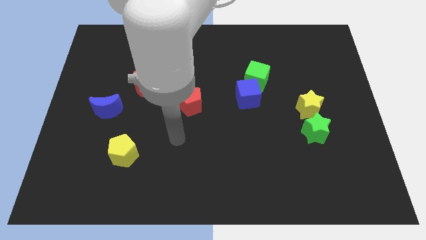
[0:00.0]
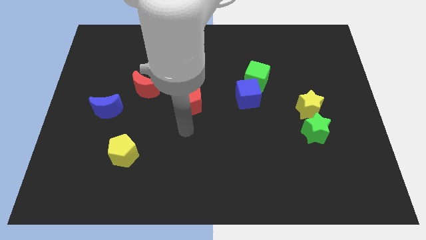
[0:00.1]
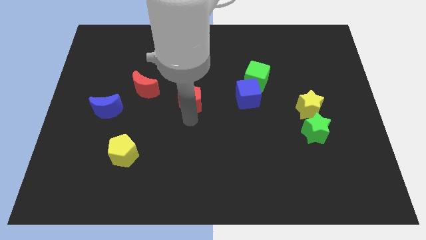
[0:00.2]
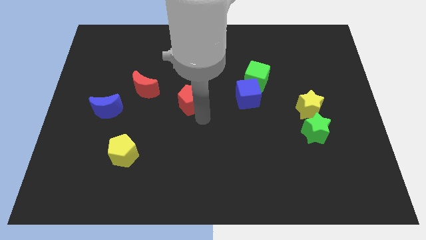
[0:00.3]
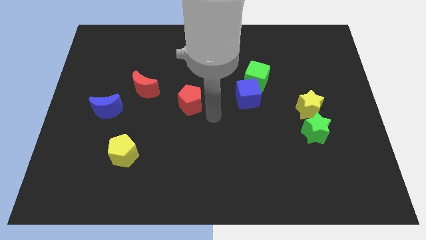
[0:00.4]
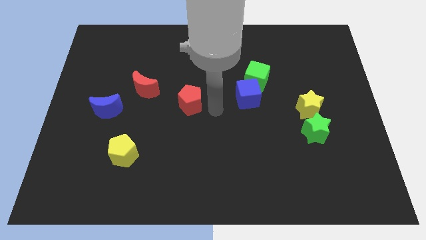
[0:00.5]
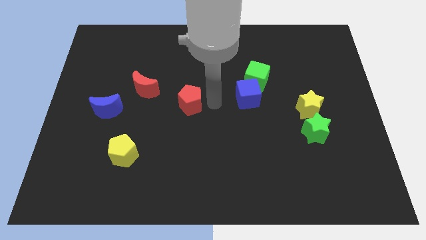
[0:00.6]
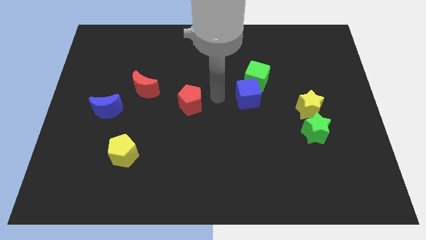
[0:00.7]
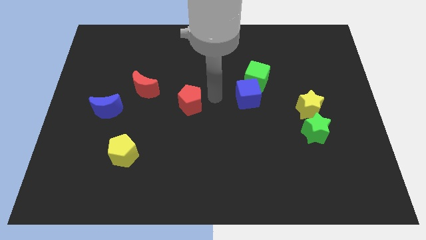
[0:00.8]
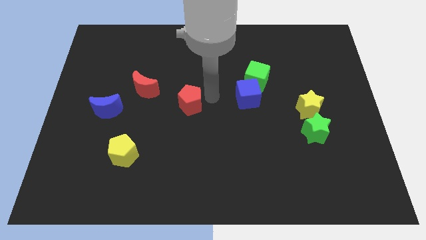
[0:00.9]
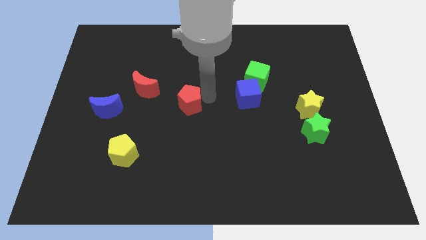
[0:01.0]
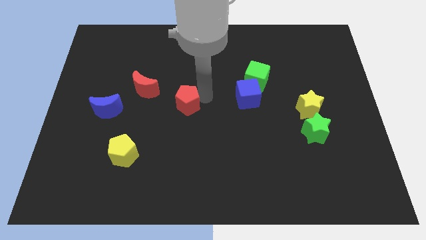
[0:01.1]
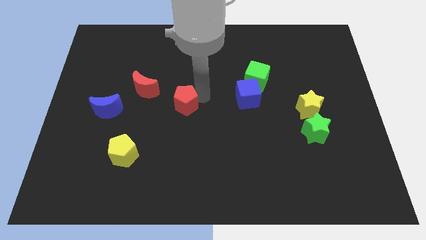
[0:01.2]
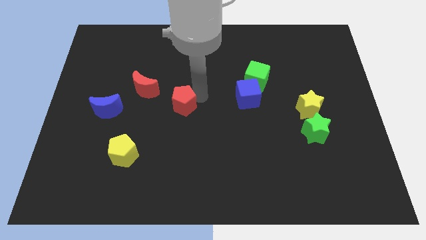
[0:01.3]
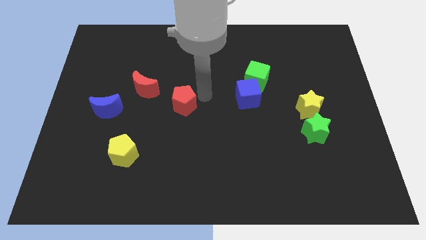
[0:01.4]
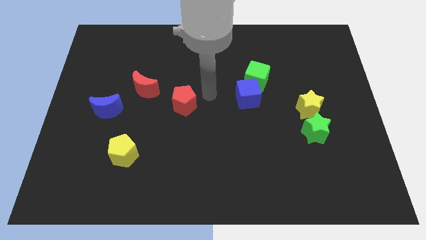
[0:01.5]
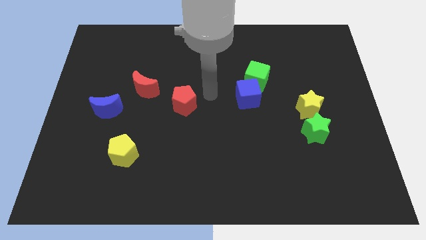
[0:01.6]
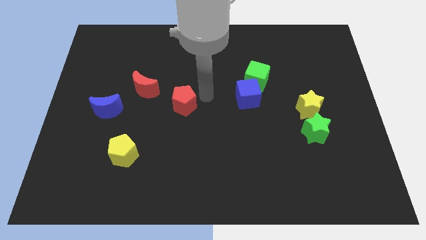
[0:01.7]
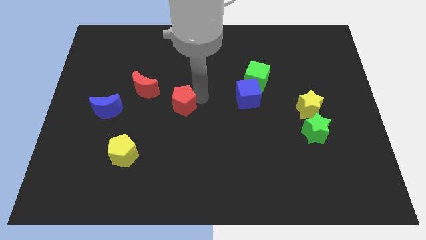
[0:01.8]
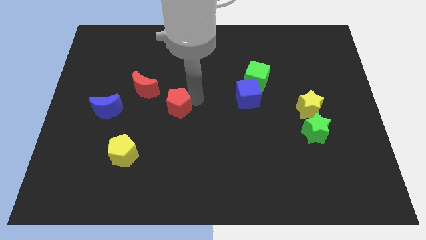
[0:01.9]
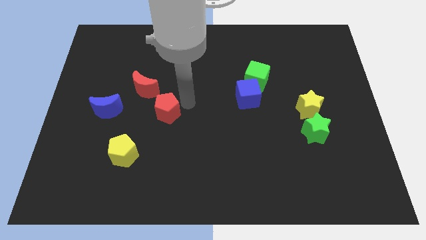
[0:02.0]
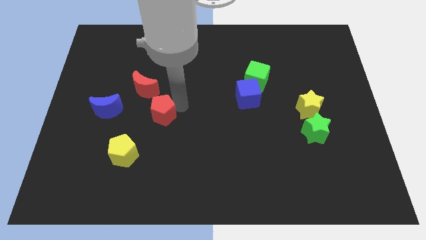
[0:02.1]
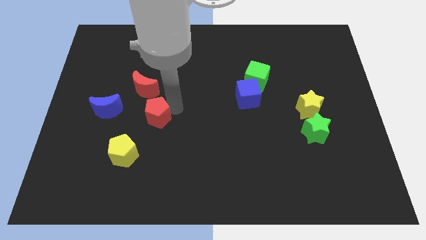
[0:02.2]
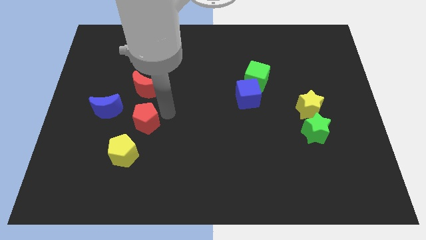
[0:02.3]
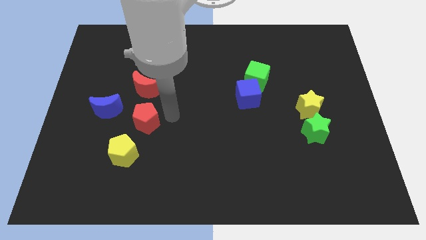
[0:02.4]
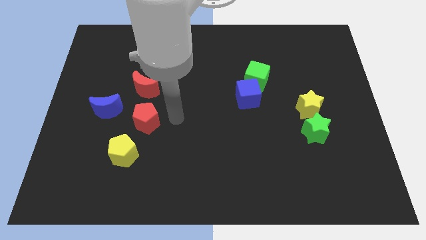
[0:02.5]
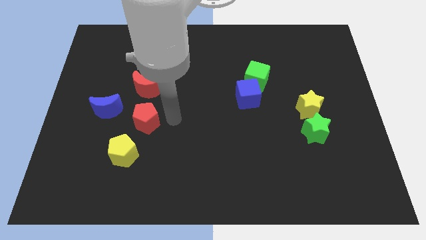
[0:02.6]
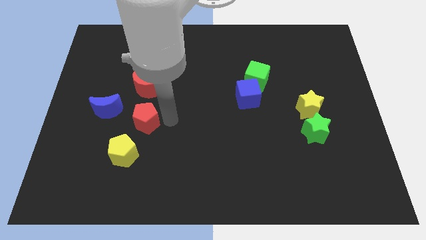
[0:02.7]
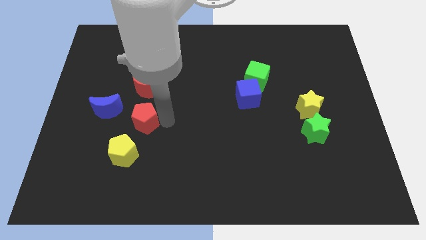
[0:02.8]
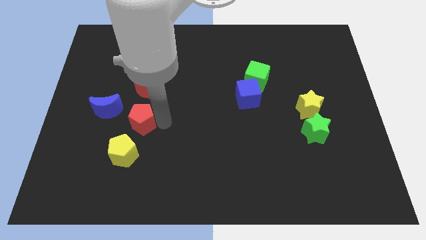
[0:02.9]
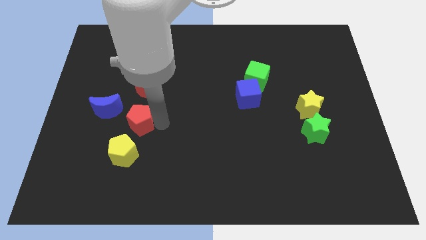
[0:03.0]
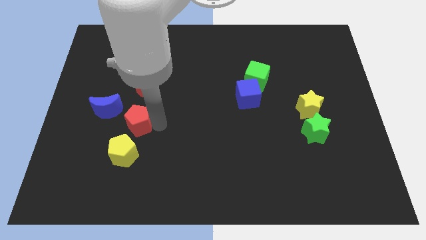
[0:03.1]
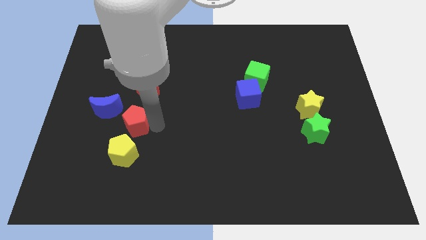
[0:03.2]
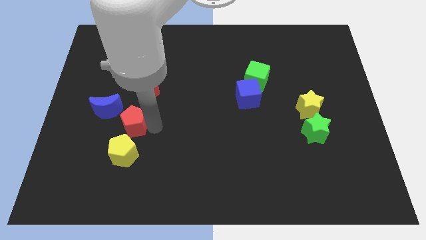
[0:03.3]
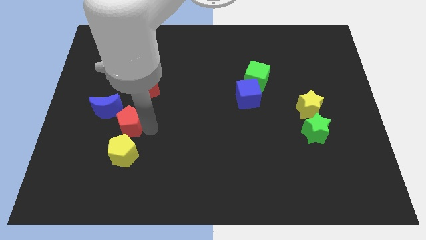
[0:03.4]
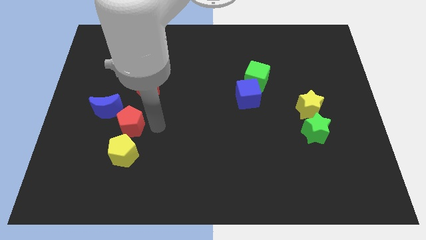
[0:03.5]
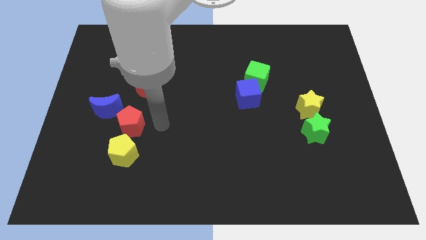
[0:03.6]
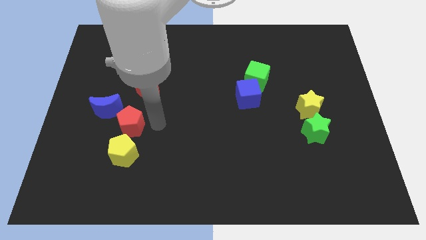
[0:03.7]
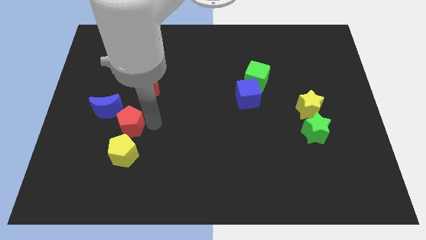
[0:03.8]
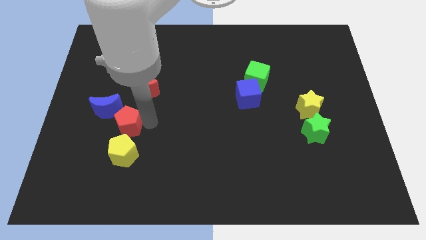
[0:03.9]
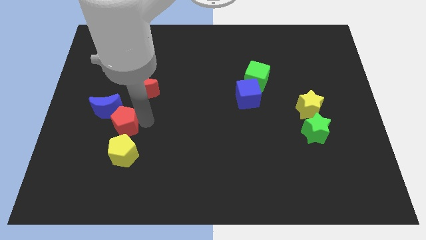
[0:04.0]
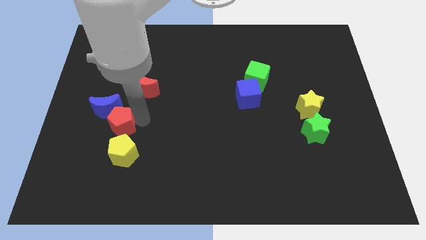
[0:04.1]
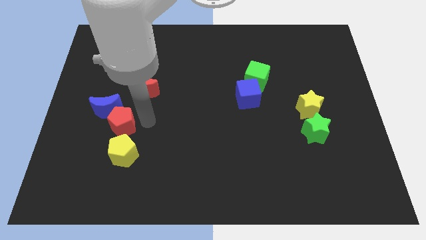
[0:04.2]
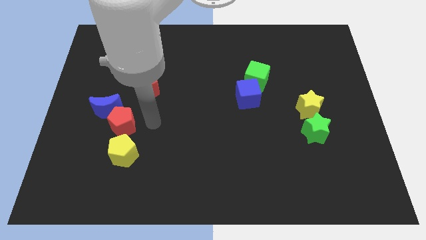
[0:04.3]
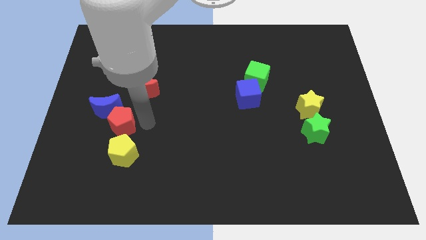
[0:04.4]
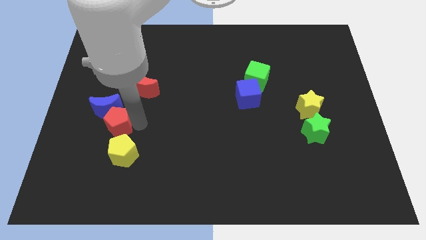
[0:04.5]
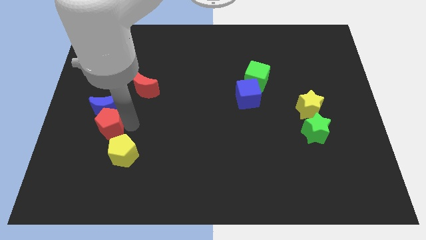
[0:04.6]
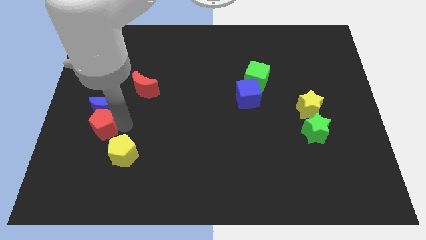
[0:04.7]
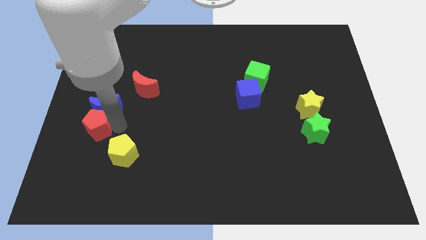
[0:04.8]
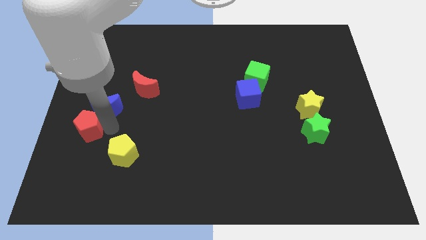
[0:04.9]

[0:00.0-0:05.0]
slide the red pentagon to the center left

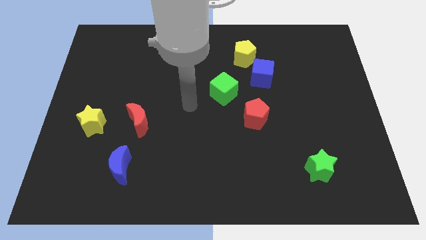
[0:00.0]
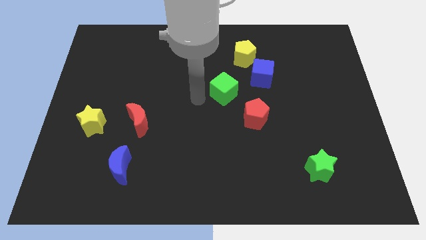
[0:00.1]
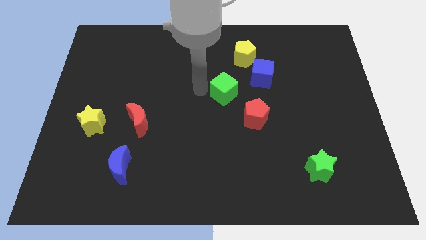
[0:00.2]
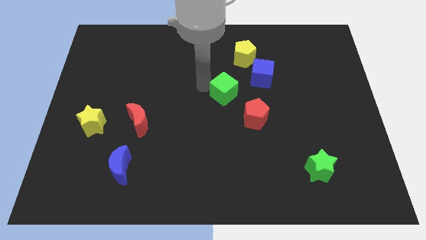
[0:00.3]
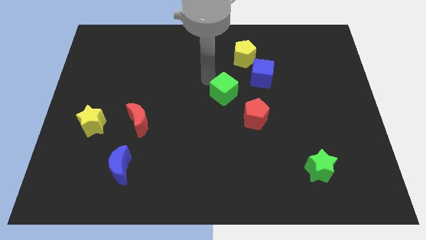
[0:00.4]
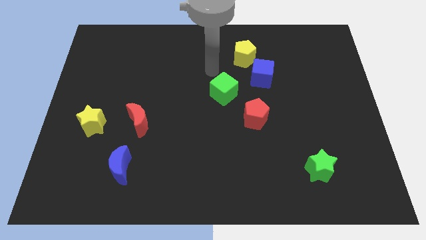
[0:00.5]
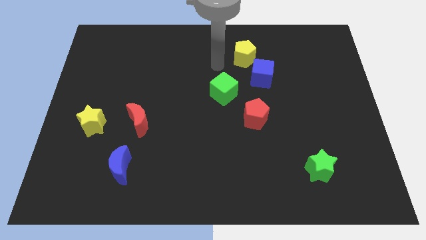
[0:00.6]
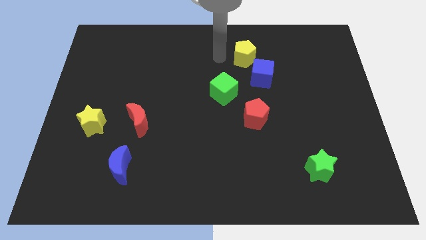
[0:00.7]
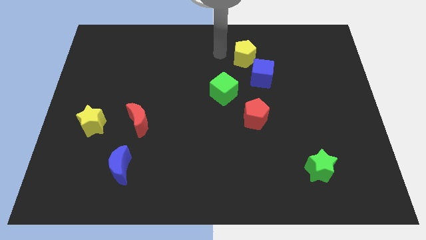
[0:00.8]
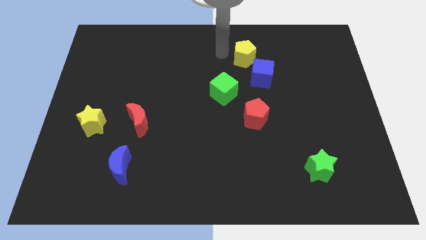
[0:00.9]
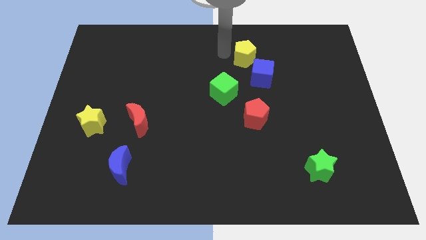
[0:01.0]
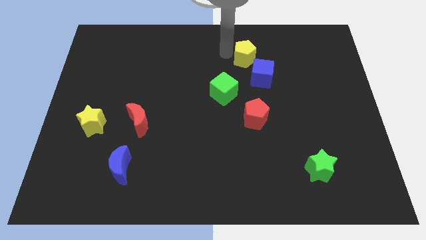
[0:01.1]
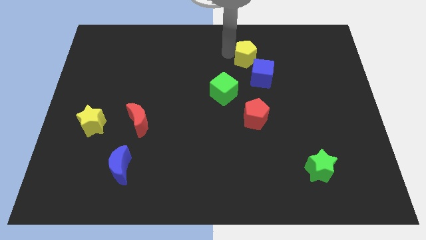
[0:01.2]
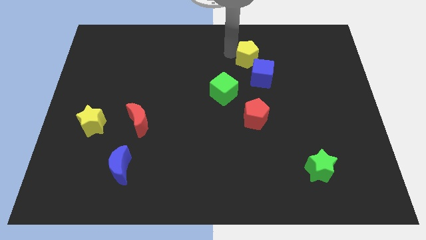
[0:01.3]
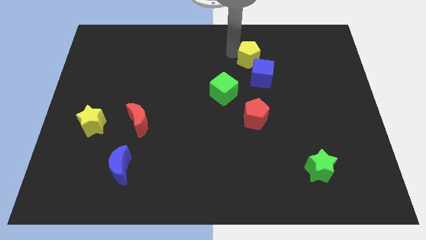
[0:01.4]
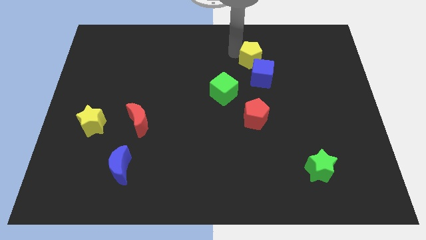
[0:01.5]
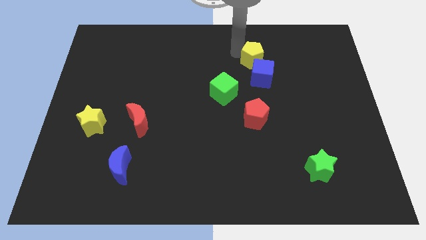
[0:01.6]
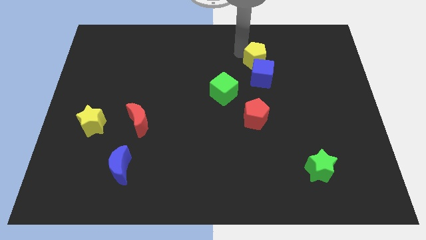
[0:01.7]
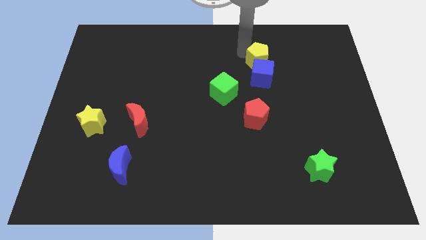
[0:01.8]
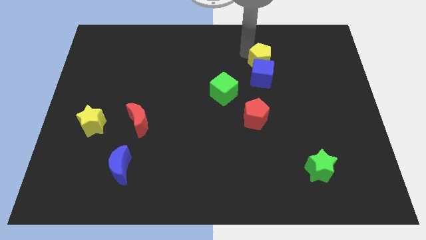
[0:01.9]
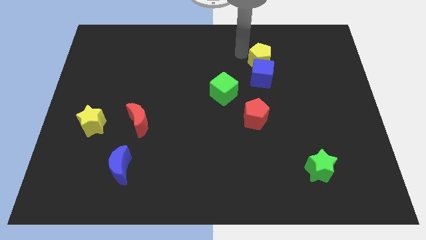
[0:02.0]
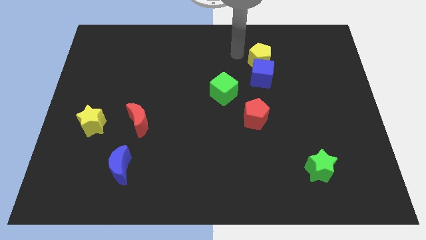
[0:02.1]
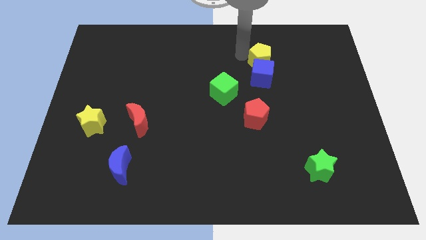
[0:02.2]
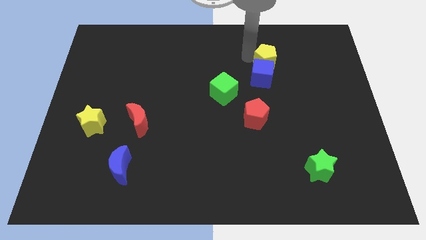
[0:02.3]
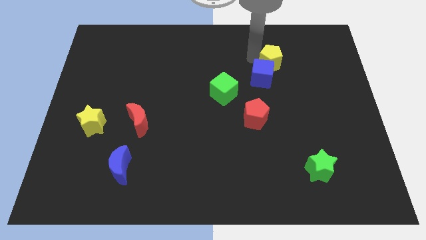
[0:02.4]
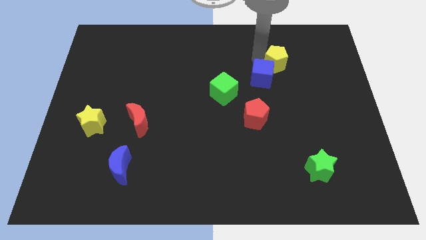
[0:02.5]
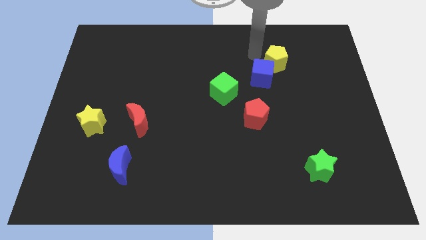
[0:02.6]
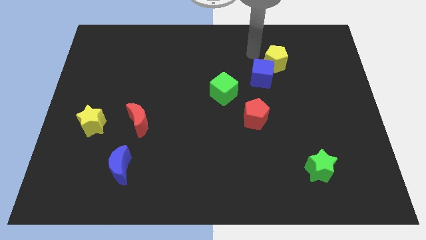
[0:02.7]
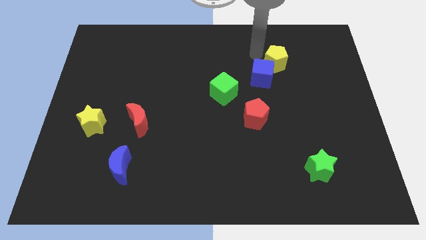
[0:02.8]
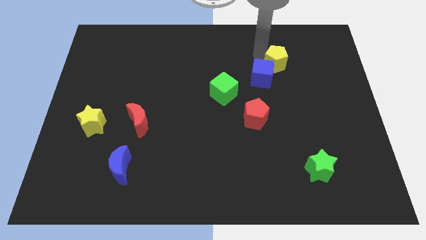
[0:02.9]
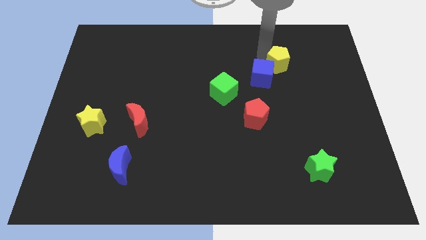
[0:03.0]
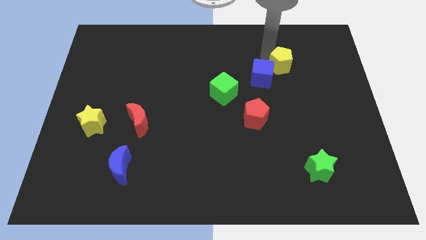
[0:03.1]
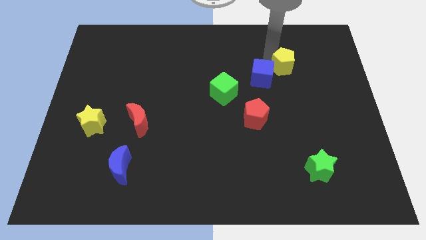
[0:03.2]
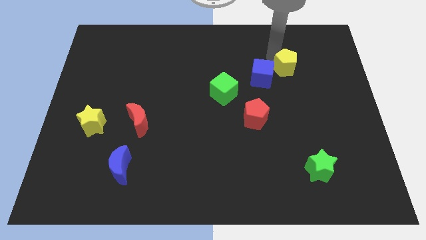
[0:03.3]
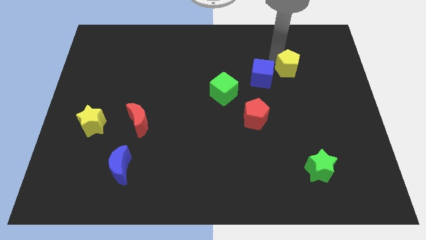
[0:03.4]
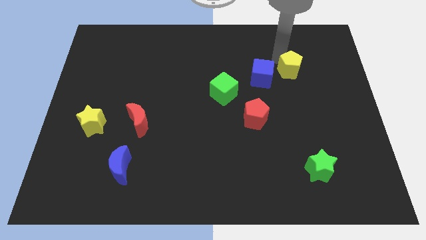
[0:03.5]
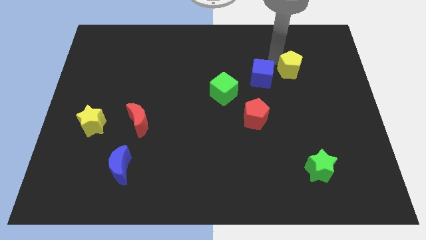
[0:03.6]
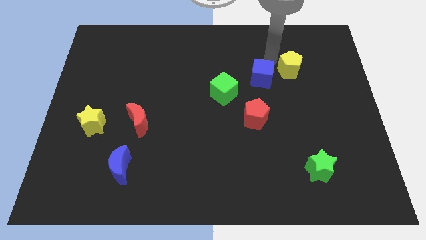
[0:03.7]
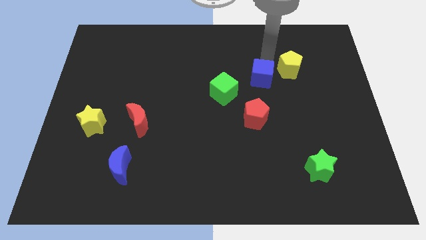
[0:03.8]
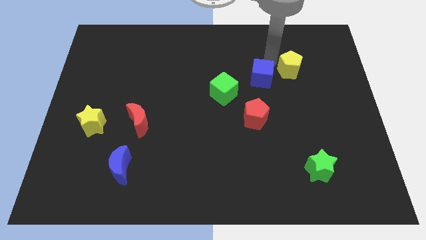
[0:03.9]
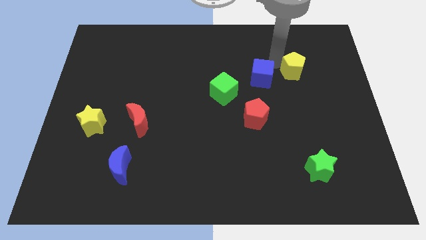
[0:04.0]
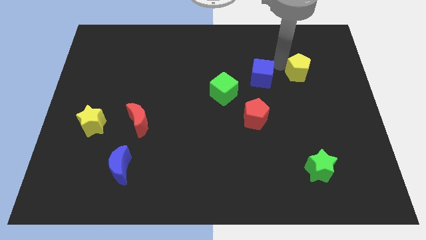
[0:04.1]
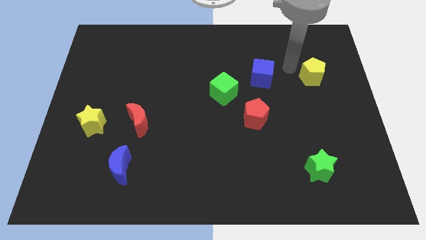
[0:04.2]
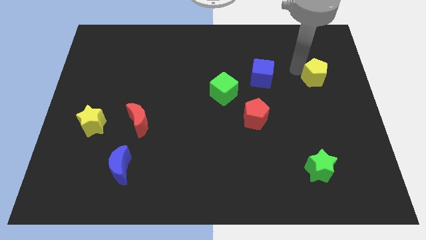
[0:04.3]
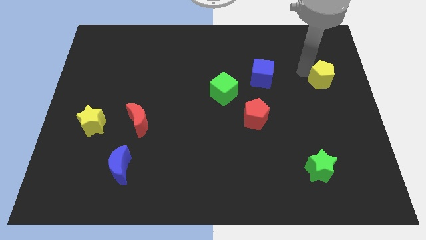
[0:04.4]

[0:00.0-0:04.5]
move the yellow pentagon to the right side
